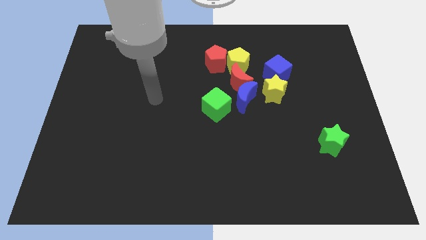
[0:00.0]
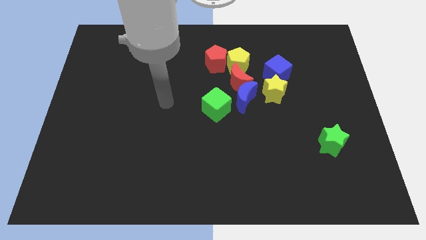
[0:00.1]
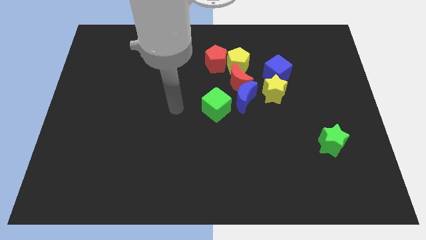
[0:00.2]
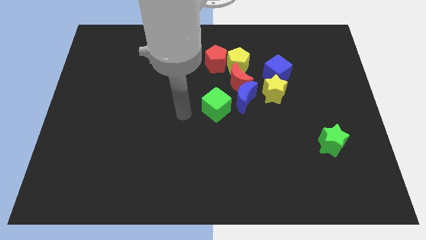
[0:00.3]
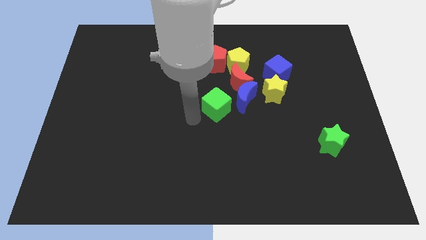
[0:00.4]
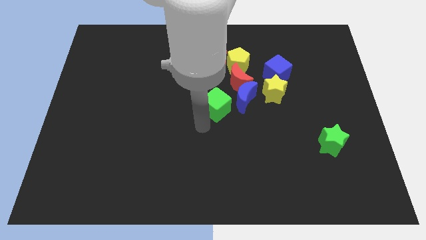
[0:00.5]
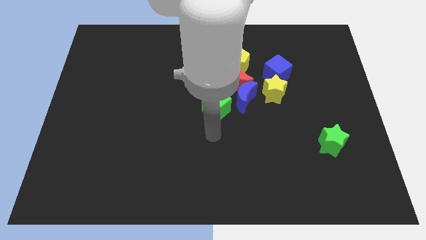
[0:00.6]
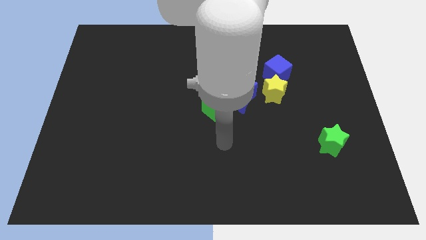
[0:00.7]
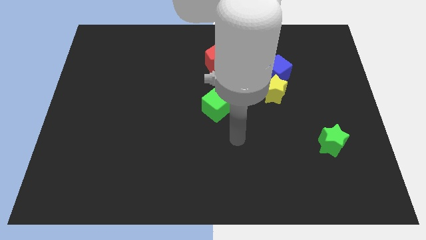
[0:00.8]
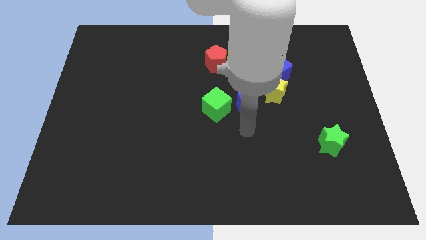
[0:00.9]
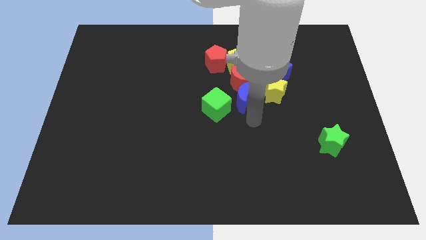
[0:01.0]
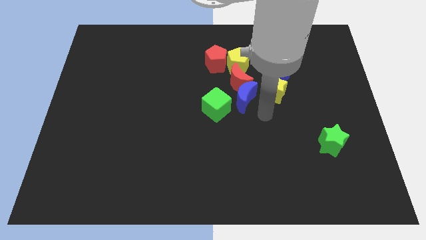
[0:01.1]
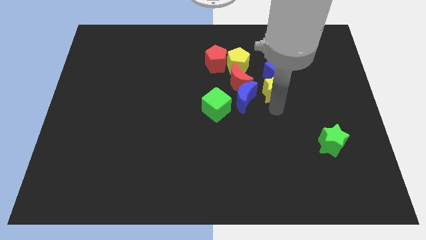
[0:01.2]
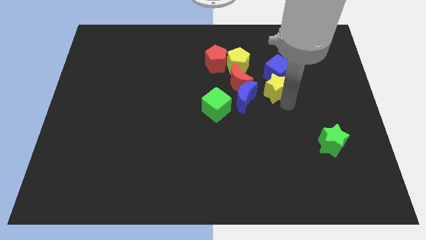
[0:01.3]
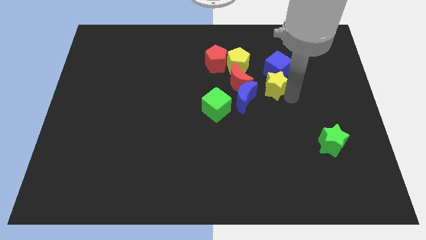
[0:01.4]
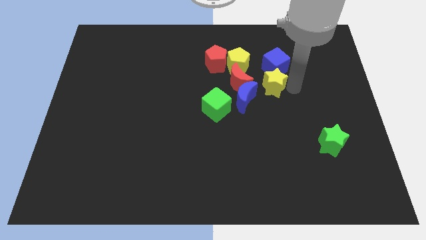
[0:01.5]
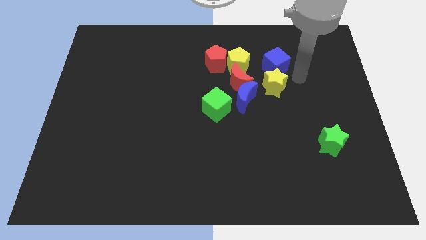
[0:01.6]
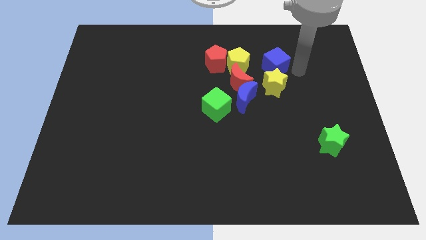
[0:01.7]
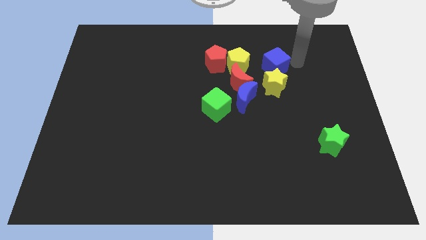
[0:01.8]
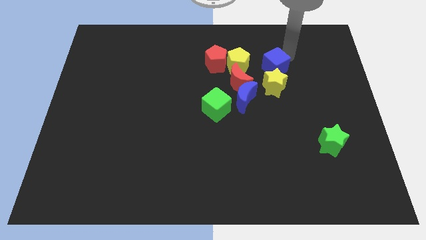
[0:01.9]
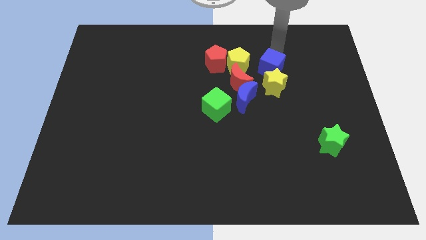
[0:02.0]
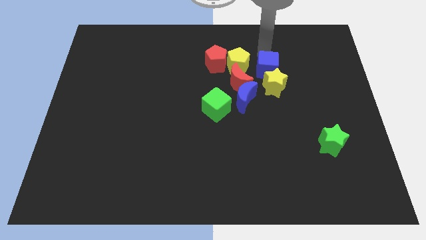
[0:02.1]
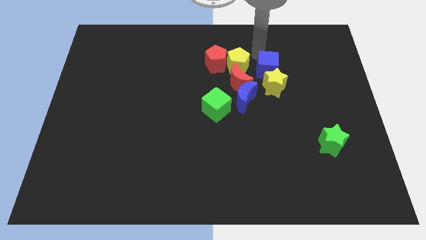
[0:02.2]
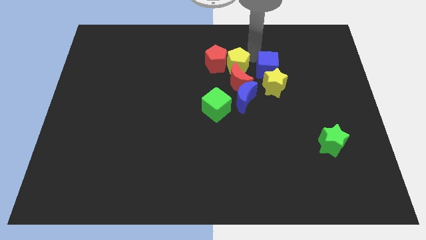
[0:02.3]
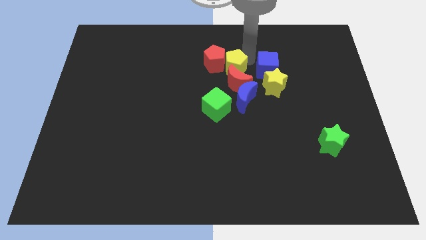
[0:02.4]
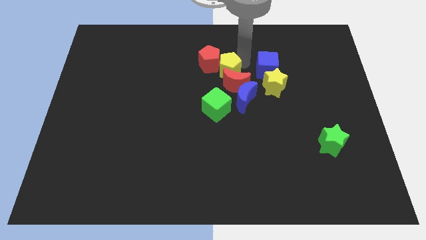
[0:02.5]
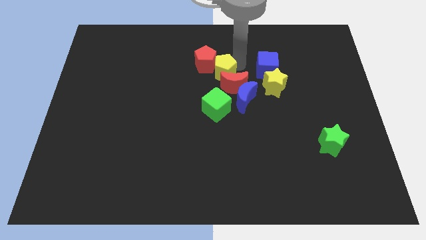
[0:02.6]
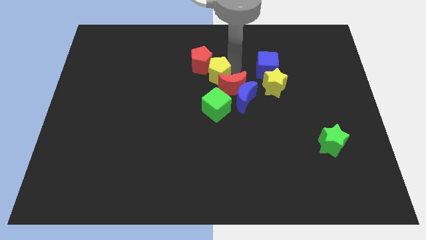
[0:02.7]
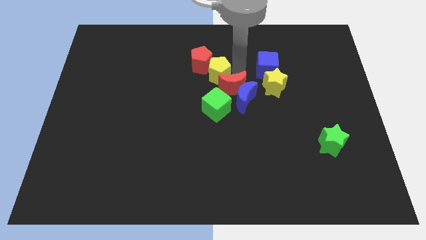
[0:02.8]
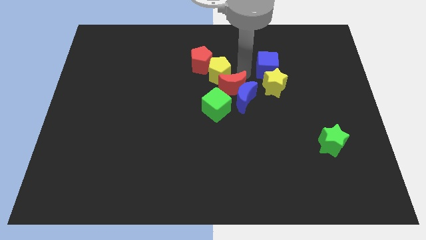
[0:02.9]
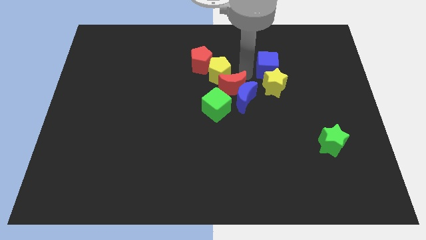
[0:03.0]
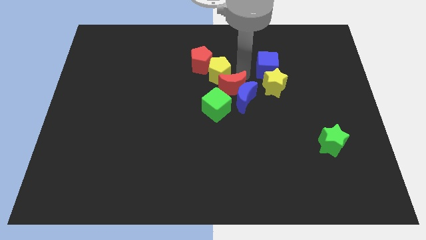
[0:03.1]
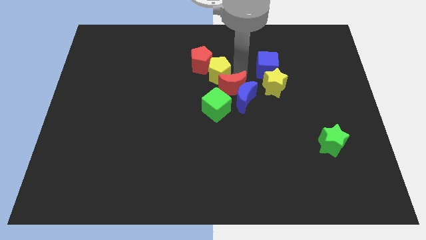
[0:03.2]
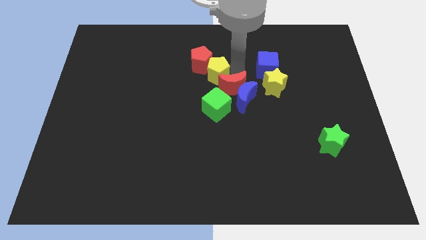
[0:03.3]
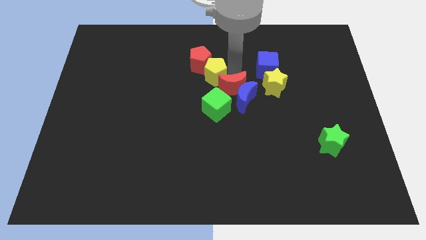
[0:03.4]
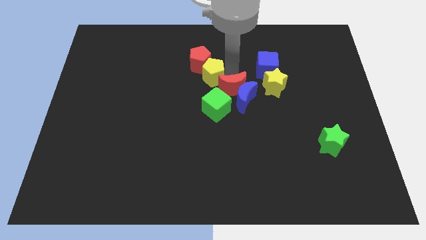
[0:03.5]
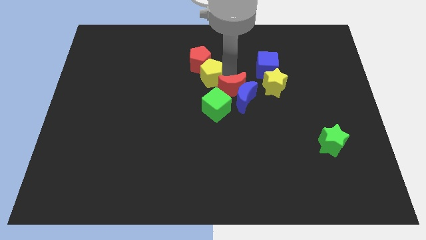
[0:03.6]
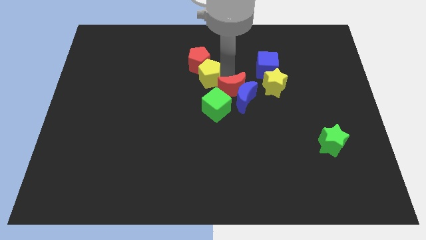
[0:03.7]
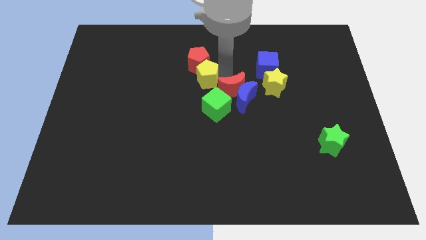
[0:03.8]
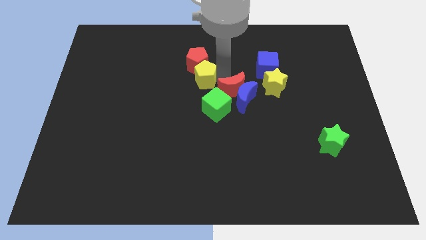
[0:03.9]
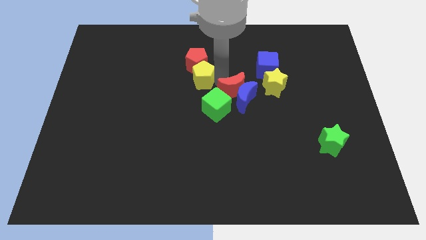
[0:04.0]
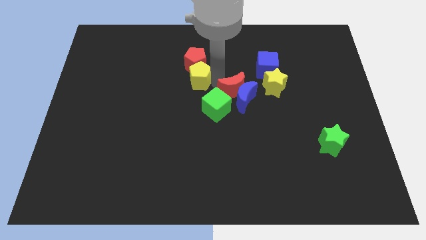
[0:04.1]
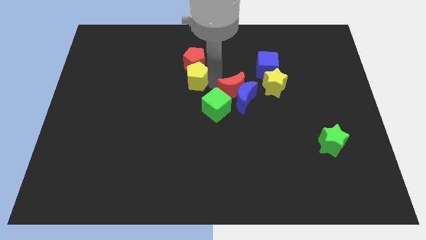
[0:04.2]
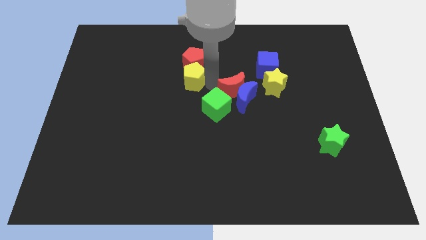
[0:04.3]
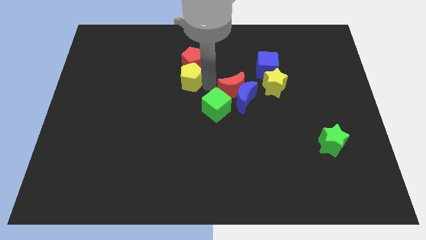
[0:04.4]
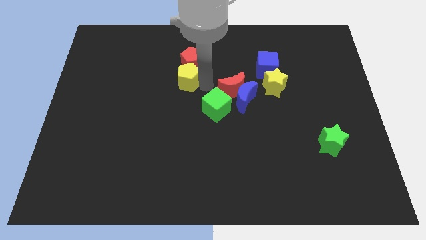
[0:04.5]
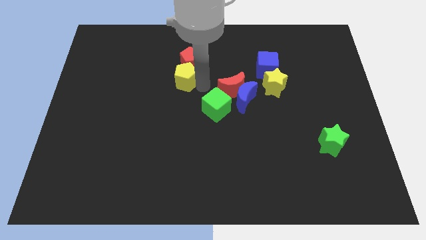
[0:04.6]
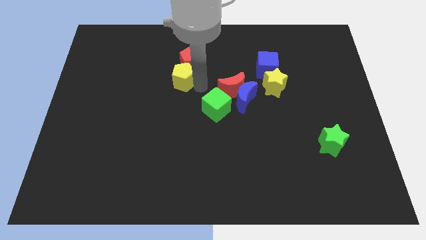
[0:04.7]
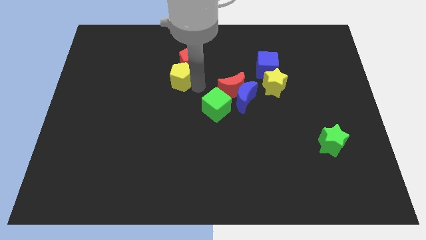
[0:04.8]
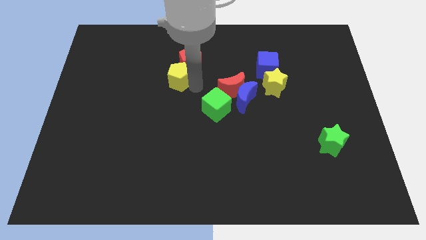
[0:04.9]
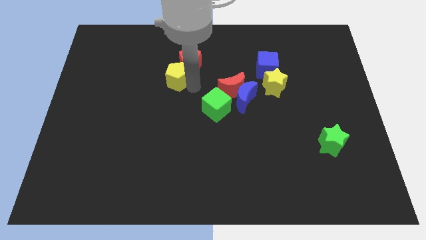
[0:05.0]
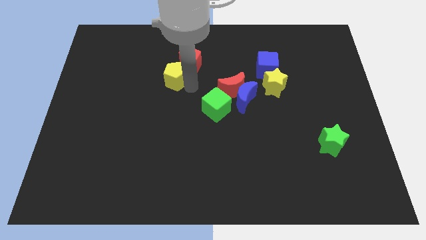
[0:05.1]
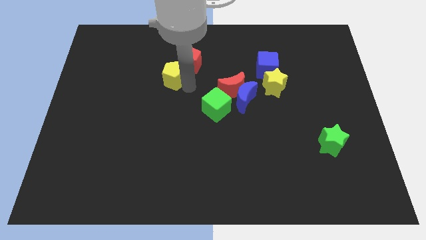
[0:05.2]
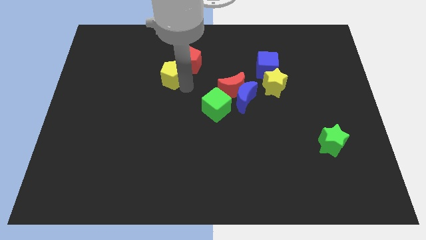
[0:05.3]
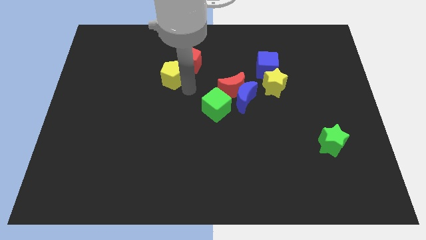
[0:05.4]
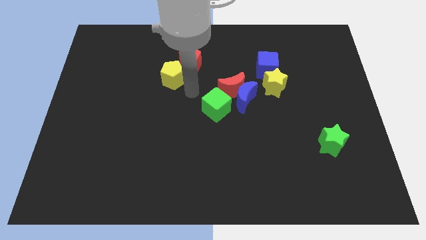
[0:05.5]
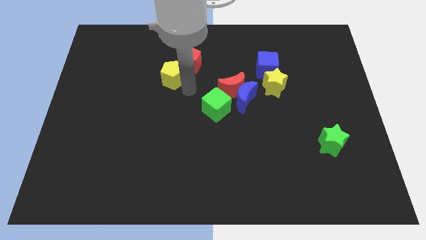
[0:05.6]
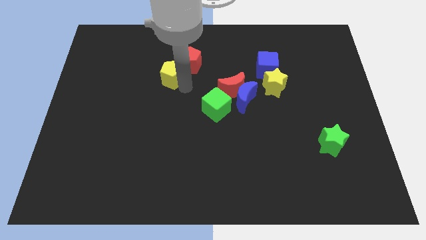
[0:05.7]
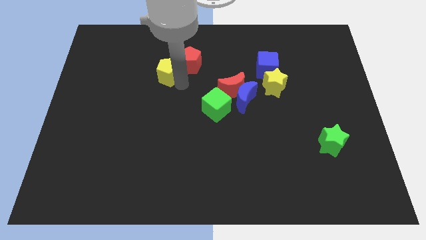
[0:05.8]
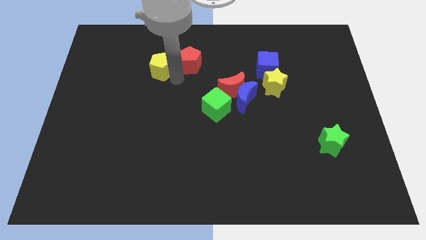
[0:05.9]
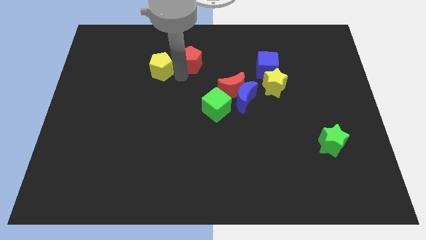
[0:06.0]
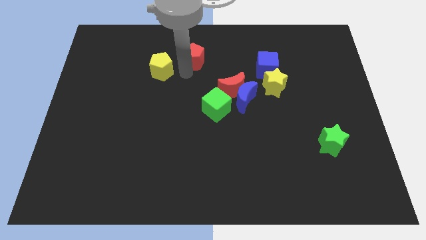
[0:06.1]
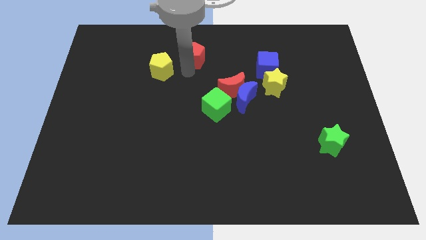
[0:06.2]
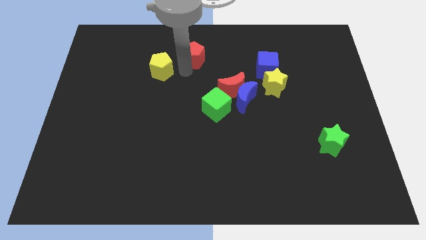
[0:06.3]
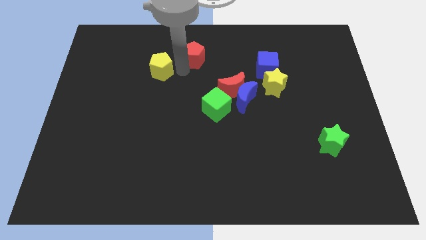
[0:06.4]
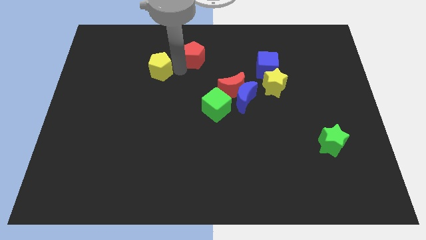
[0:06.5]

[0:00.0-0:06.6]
push the yellow pentagon left

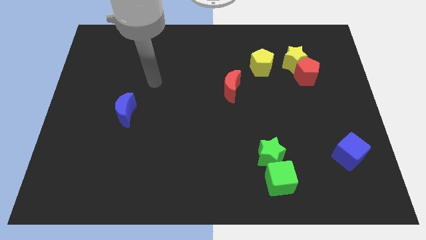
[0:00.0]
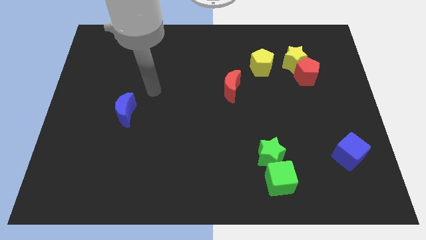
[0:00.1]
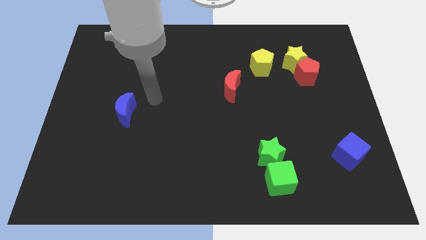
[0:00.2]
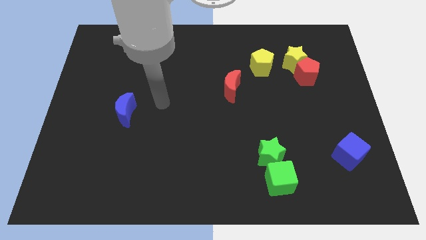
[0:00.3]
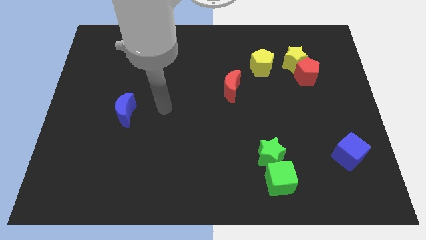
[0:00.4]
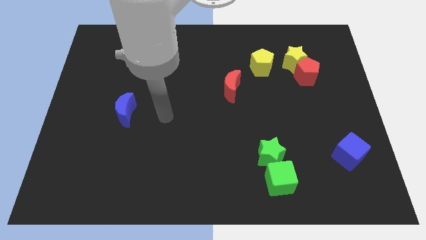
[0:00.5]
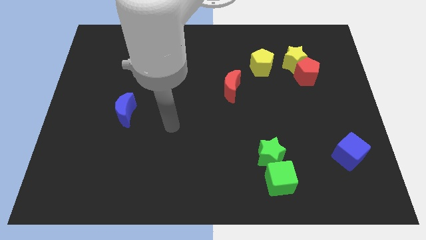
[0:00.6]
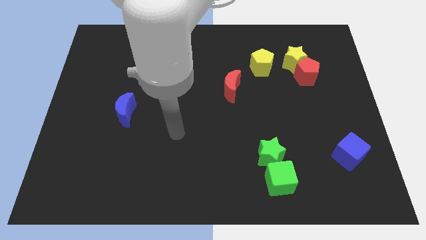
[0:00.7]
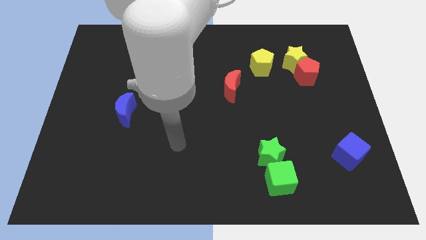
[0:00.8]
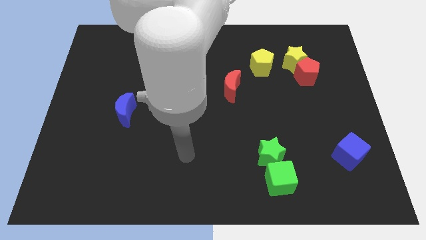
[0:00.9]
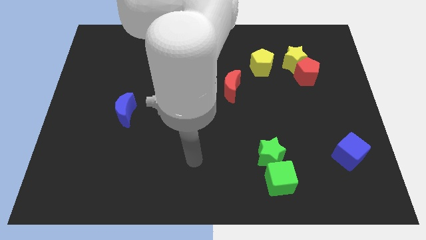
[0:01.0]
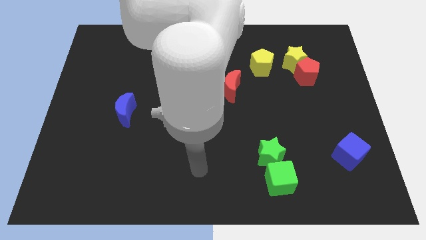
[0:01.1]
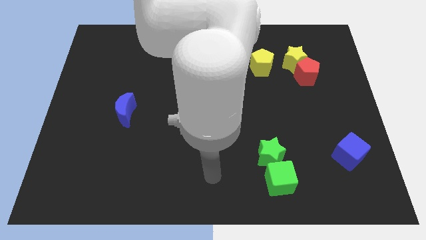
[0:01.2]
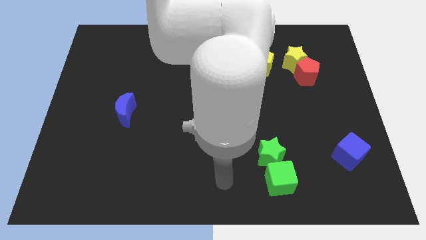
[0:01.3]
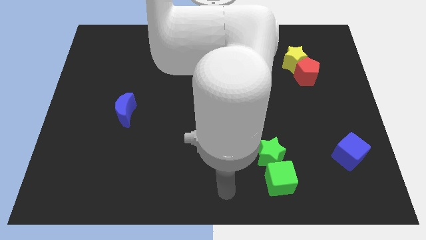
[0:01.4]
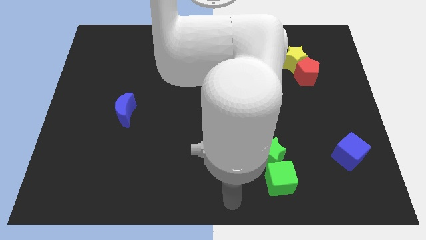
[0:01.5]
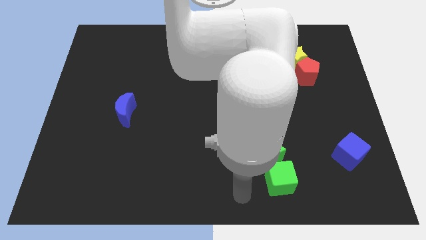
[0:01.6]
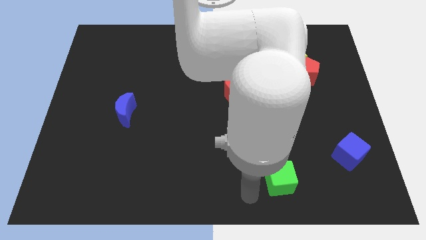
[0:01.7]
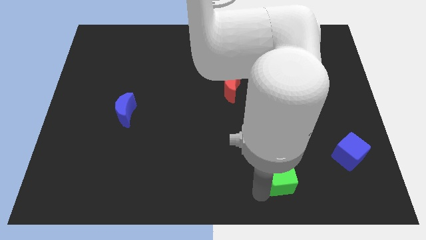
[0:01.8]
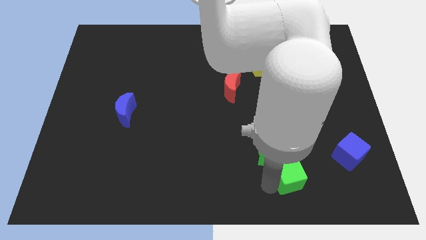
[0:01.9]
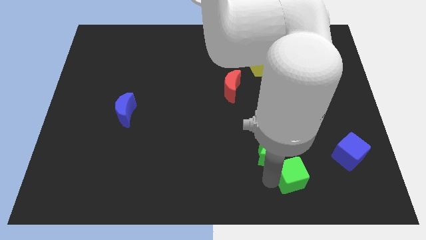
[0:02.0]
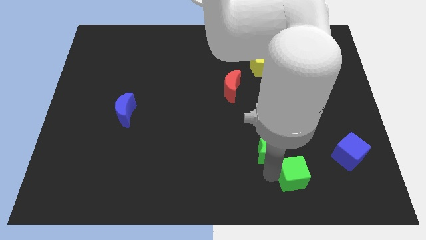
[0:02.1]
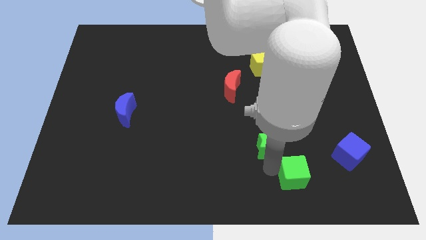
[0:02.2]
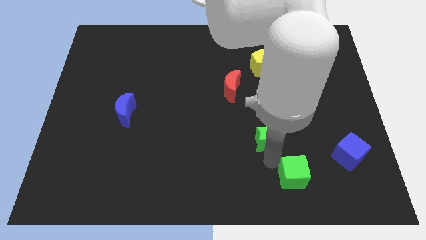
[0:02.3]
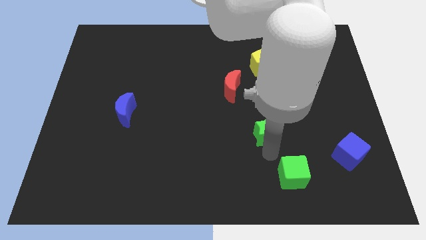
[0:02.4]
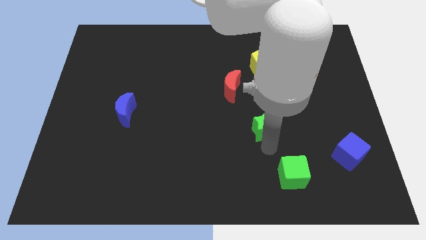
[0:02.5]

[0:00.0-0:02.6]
slide the green star upwards somewhat
